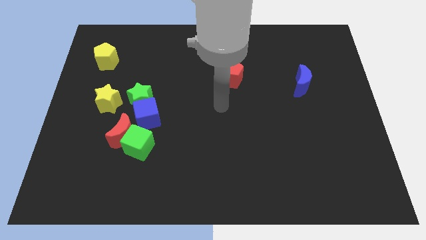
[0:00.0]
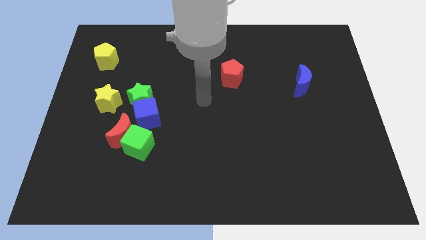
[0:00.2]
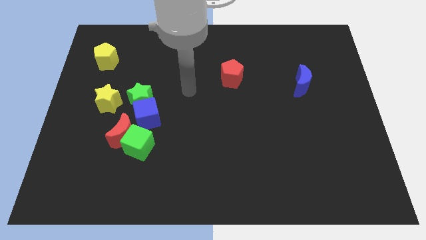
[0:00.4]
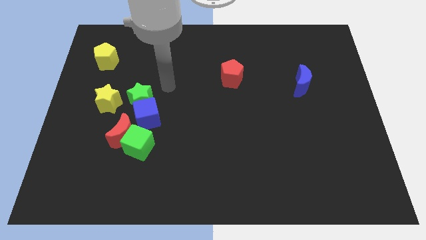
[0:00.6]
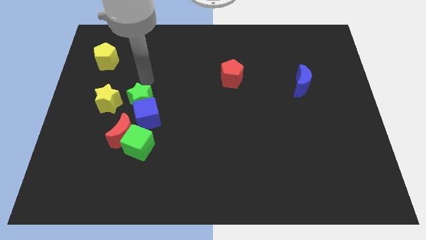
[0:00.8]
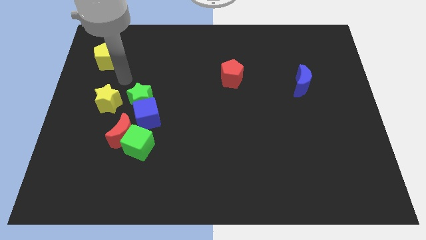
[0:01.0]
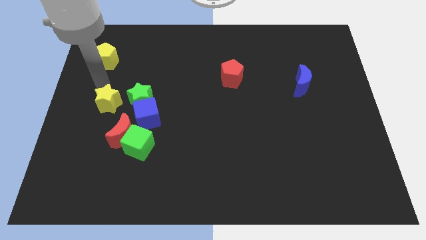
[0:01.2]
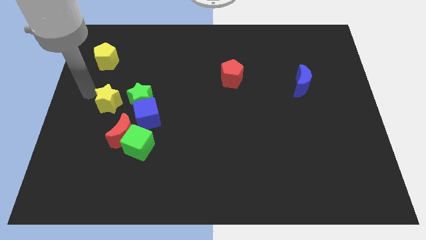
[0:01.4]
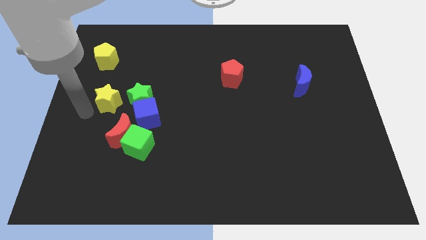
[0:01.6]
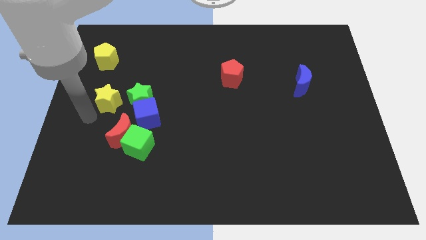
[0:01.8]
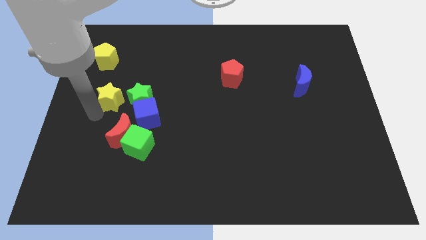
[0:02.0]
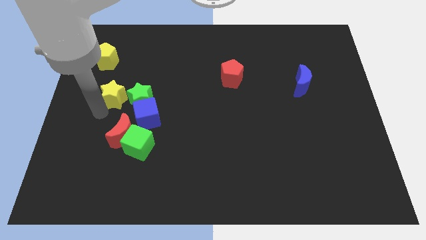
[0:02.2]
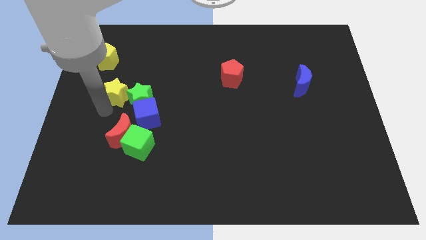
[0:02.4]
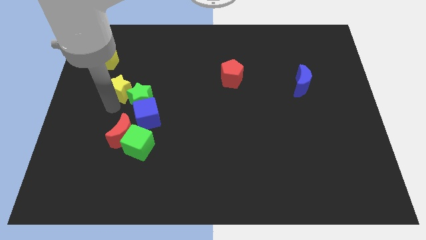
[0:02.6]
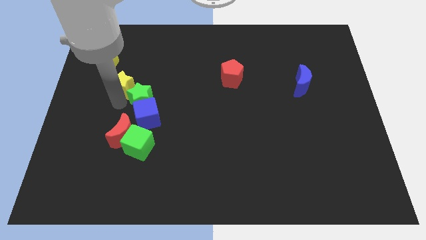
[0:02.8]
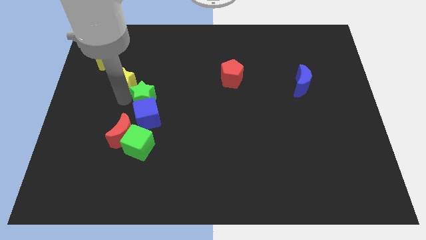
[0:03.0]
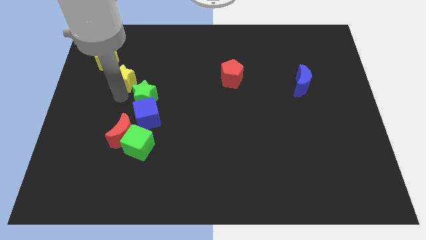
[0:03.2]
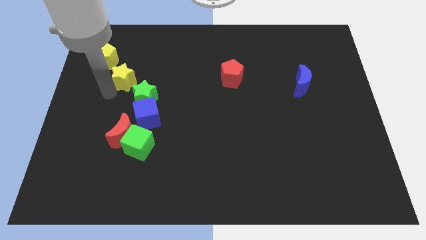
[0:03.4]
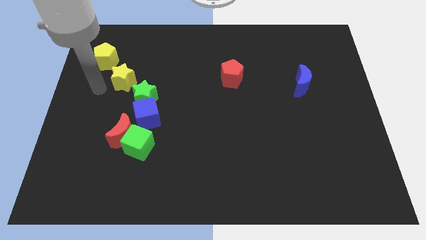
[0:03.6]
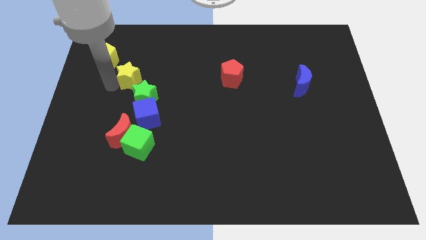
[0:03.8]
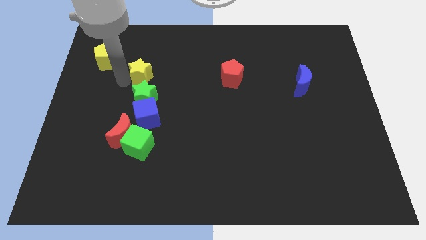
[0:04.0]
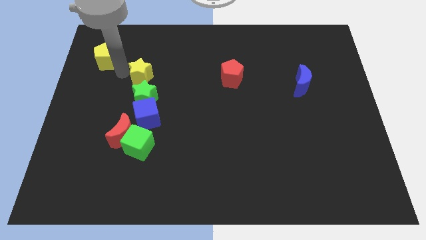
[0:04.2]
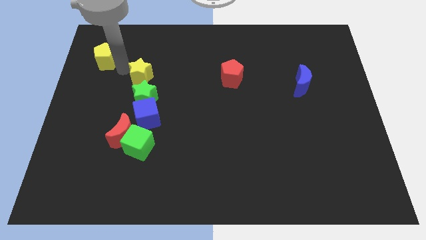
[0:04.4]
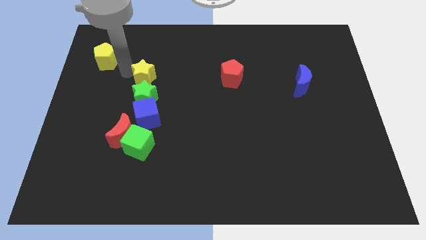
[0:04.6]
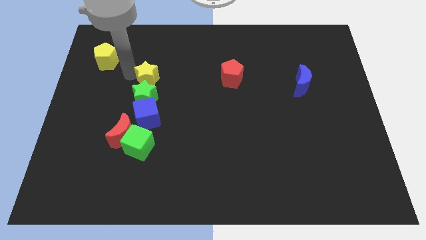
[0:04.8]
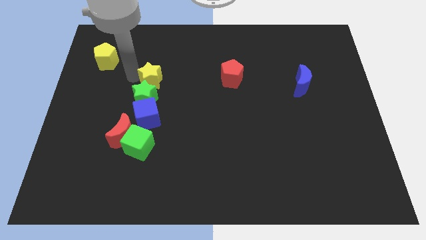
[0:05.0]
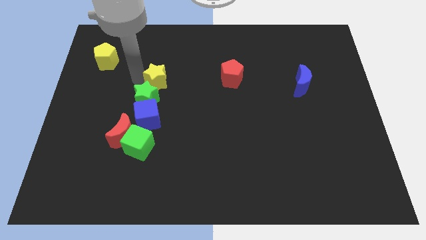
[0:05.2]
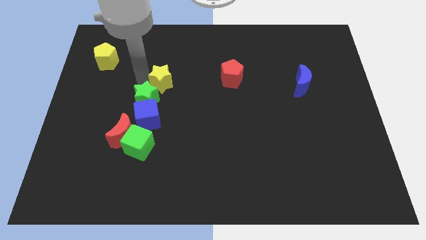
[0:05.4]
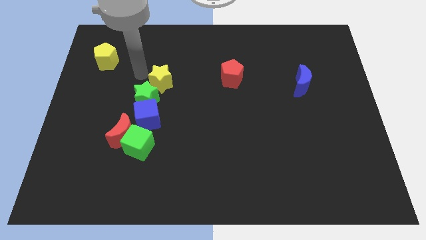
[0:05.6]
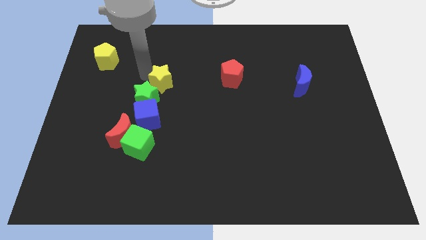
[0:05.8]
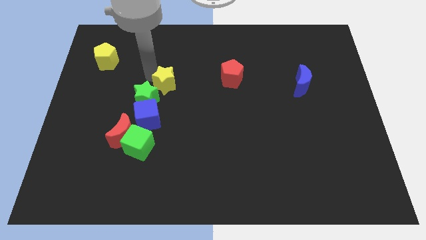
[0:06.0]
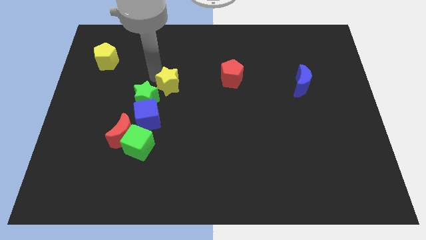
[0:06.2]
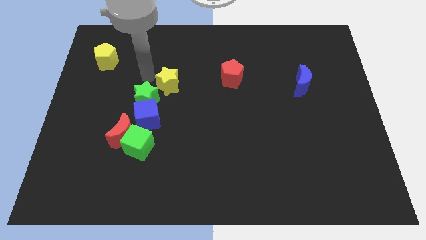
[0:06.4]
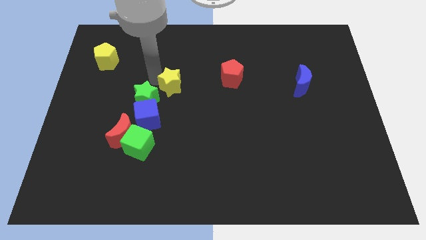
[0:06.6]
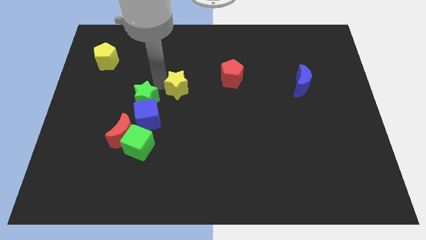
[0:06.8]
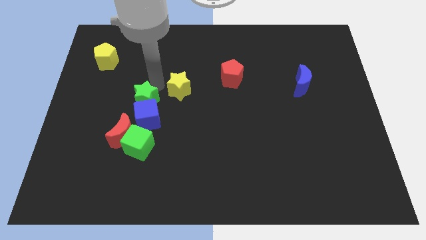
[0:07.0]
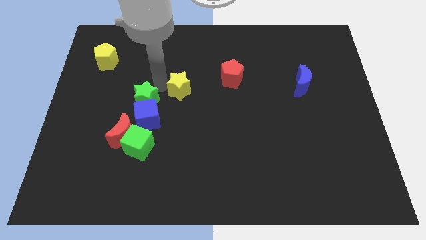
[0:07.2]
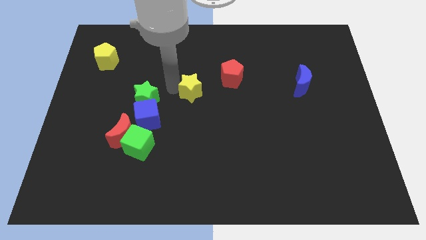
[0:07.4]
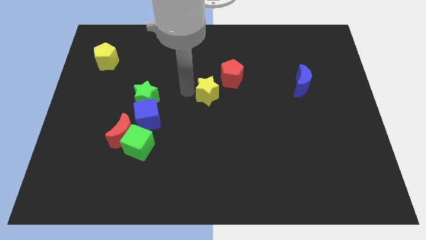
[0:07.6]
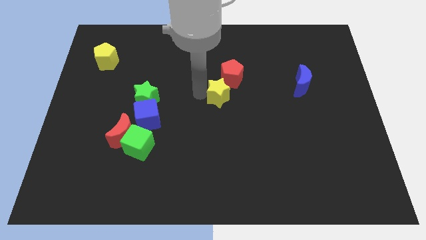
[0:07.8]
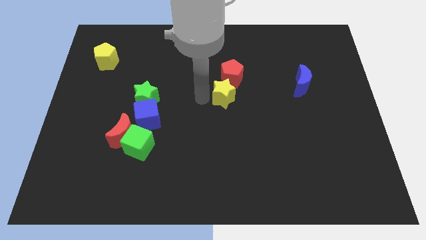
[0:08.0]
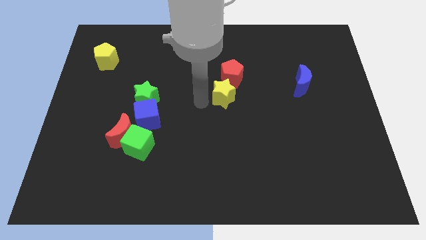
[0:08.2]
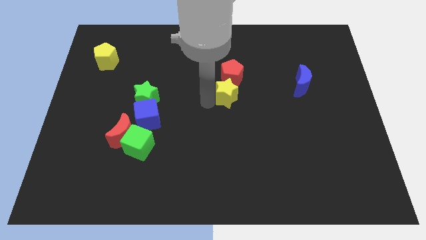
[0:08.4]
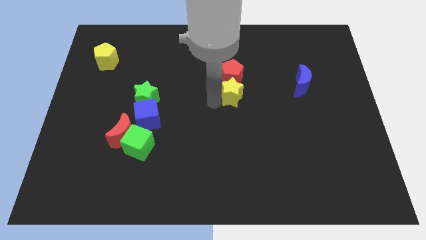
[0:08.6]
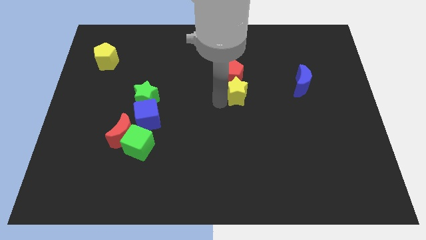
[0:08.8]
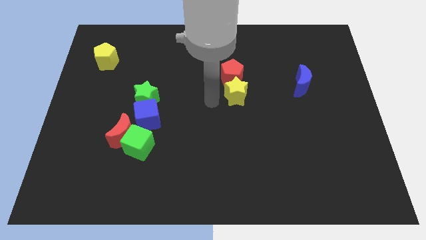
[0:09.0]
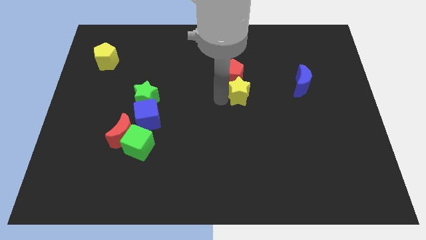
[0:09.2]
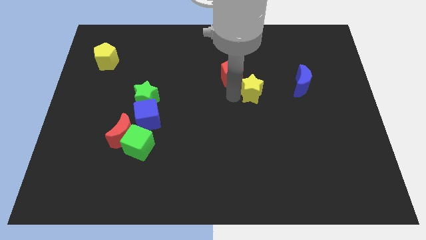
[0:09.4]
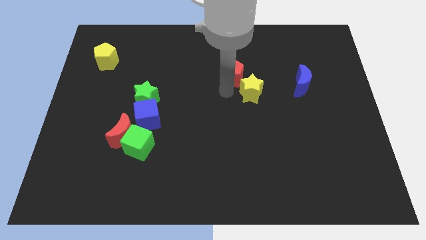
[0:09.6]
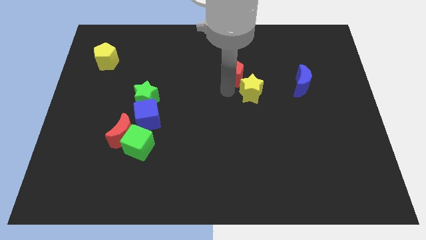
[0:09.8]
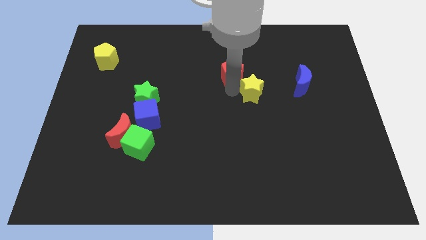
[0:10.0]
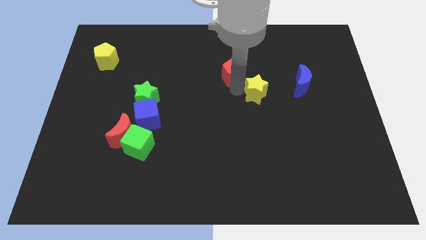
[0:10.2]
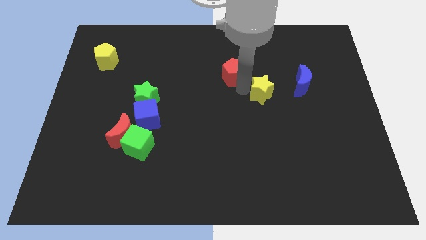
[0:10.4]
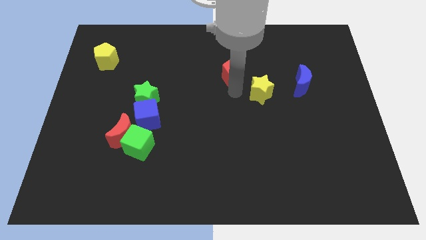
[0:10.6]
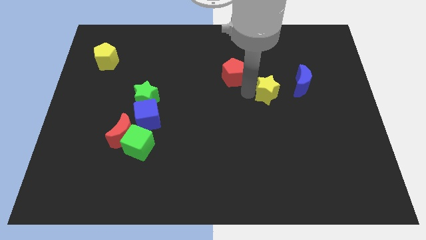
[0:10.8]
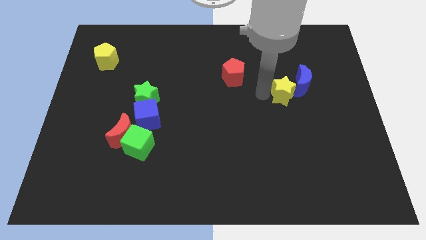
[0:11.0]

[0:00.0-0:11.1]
put the yellow star to the blue moon
